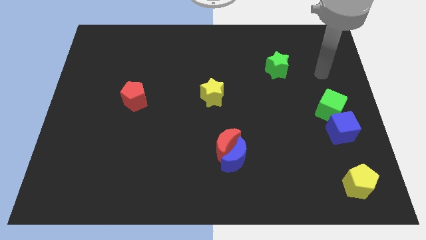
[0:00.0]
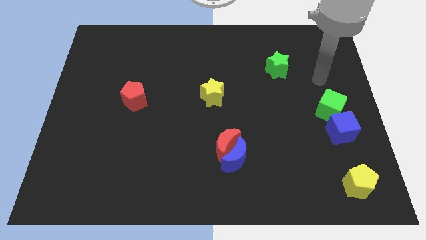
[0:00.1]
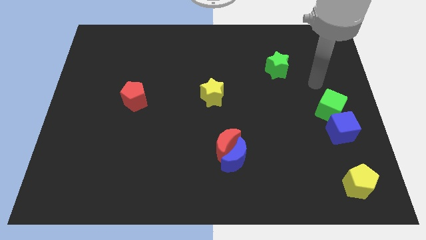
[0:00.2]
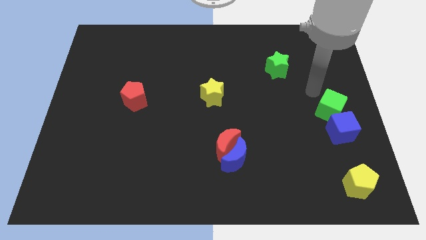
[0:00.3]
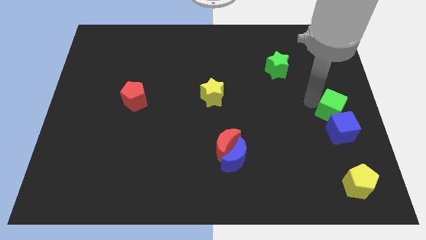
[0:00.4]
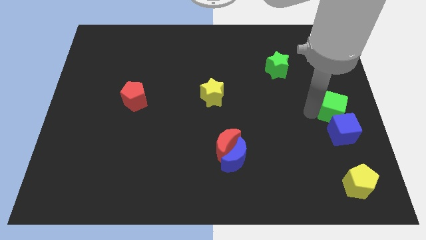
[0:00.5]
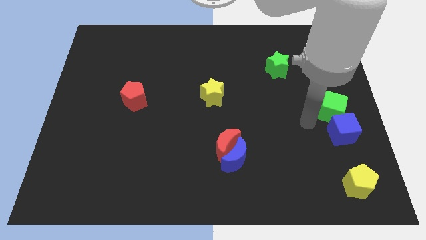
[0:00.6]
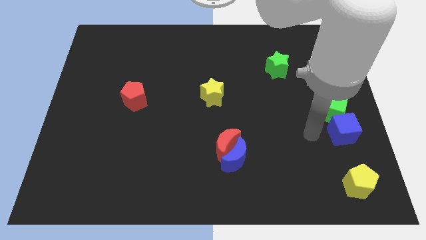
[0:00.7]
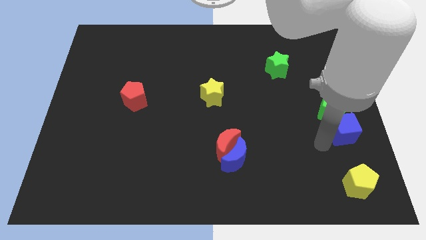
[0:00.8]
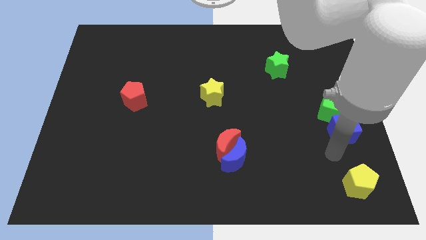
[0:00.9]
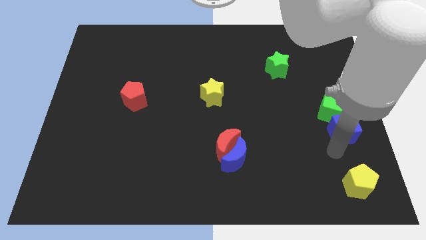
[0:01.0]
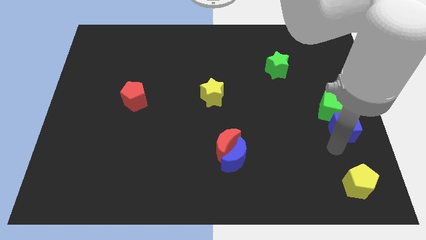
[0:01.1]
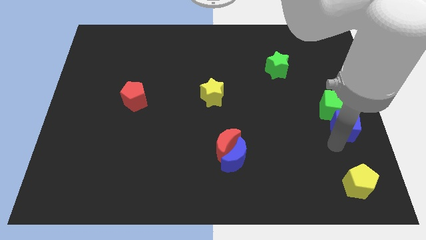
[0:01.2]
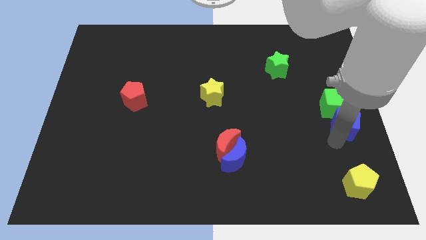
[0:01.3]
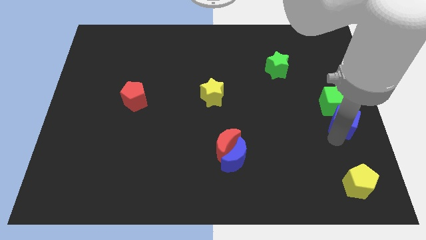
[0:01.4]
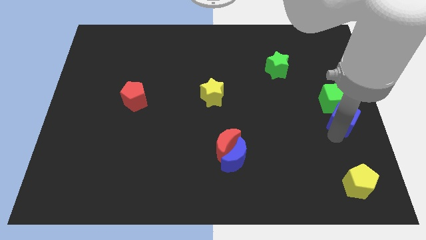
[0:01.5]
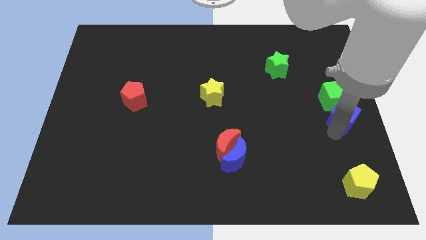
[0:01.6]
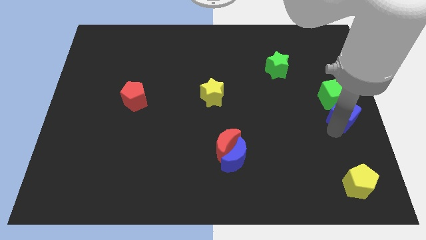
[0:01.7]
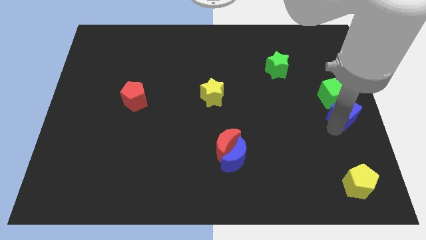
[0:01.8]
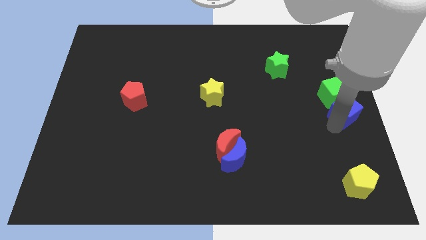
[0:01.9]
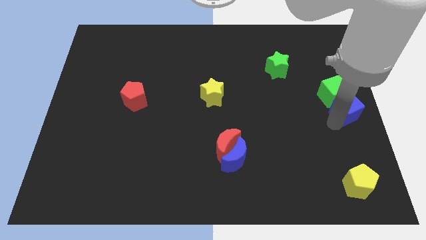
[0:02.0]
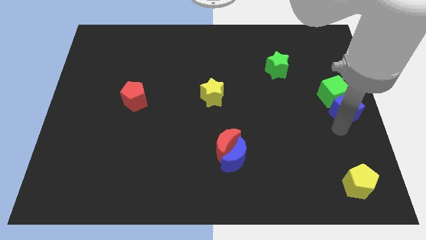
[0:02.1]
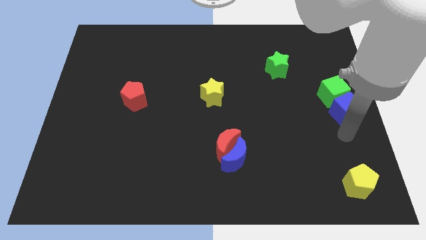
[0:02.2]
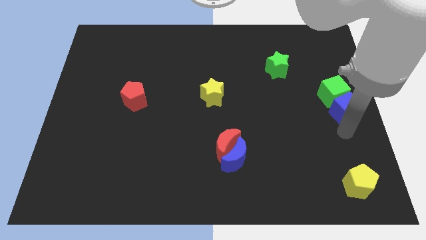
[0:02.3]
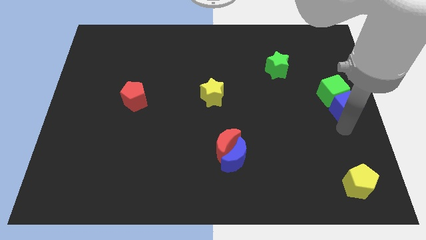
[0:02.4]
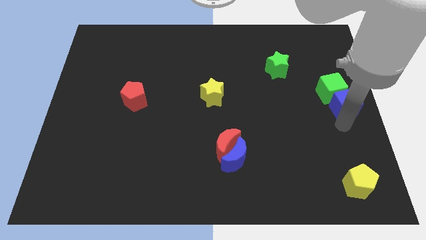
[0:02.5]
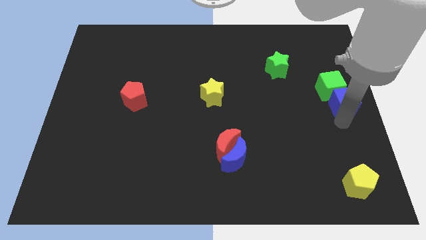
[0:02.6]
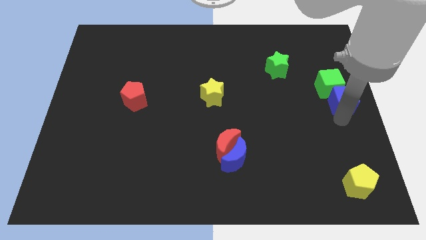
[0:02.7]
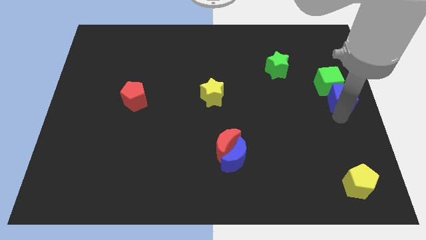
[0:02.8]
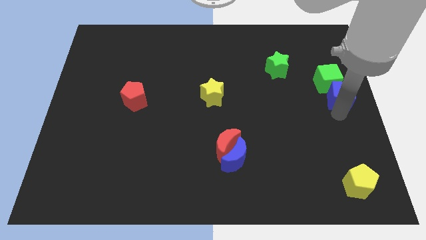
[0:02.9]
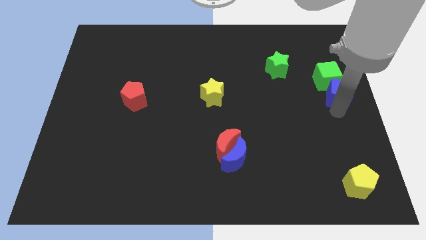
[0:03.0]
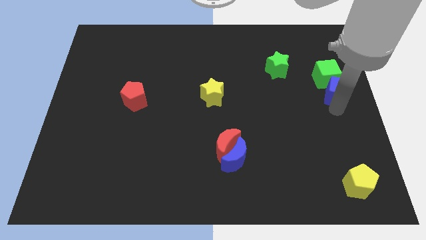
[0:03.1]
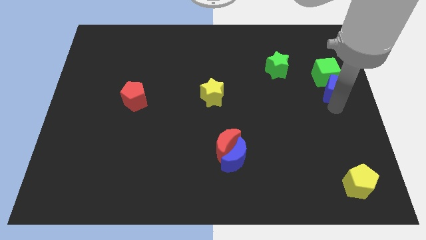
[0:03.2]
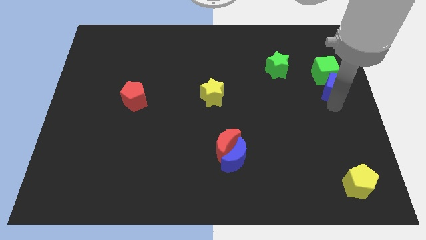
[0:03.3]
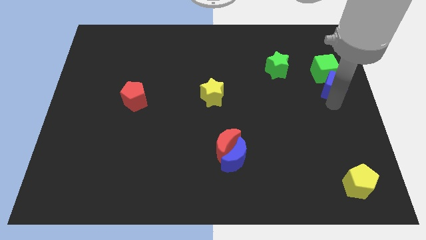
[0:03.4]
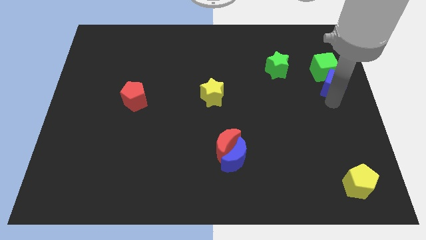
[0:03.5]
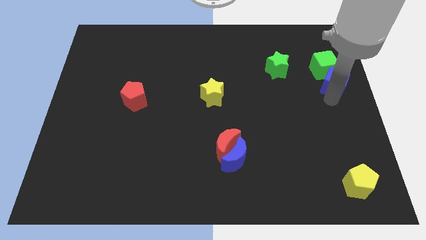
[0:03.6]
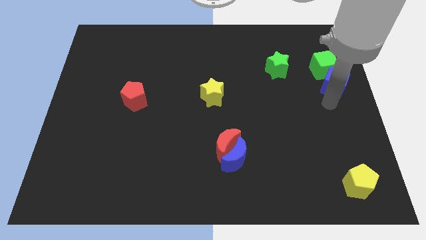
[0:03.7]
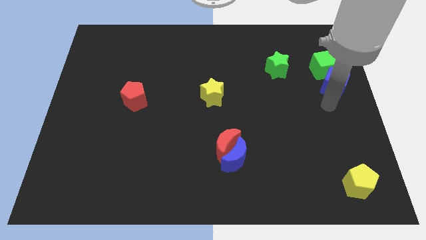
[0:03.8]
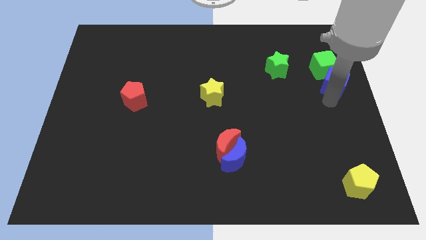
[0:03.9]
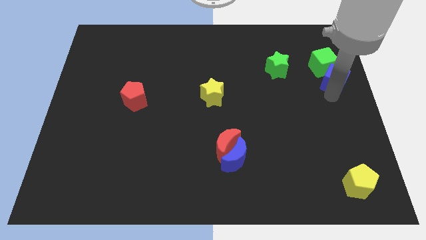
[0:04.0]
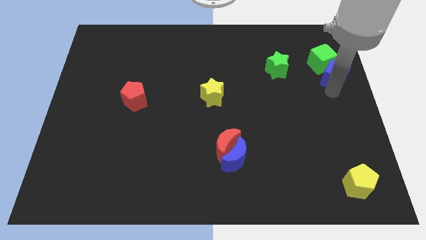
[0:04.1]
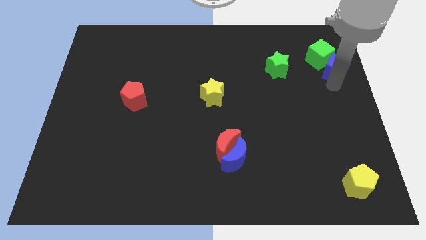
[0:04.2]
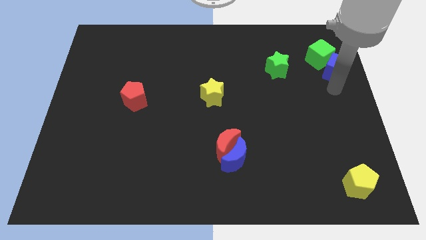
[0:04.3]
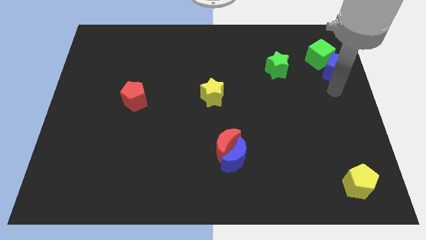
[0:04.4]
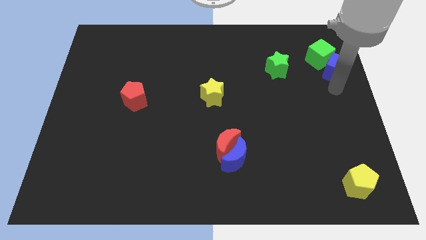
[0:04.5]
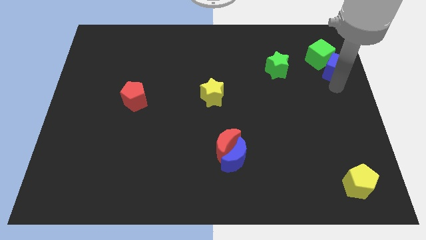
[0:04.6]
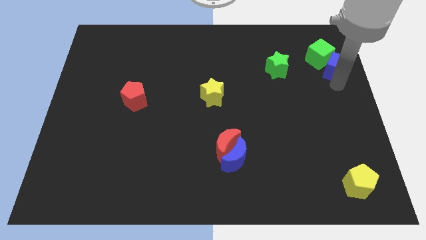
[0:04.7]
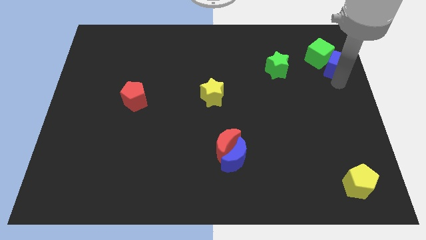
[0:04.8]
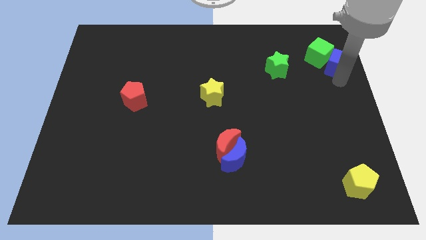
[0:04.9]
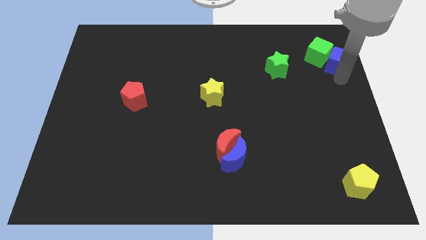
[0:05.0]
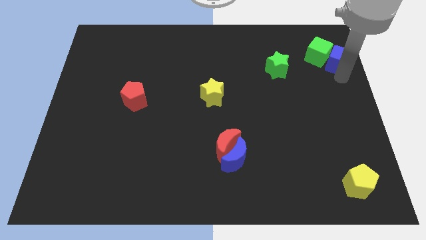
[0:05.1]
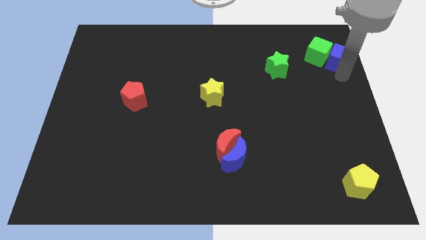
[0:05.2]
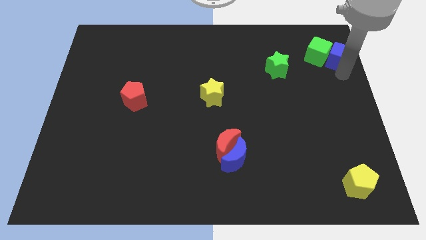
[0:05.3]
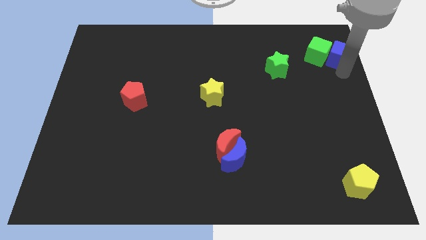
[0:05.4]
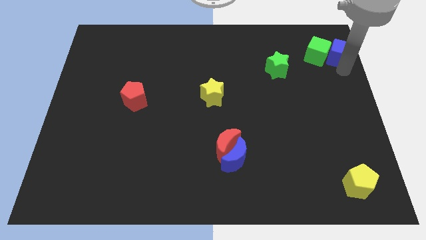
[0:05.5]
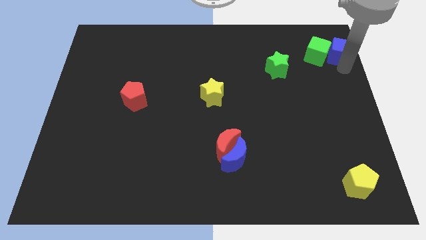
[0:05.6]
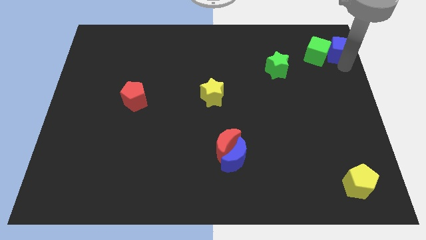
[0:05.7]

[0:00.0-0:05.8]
push the blue cube to the upper right corner

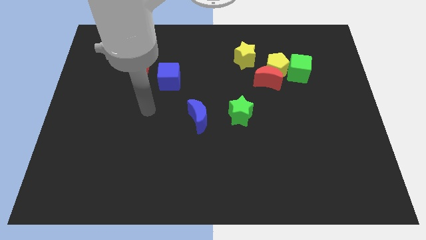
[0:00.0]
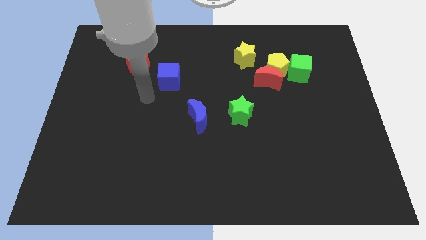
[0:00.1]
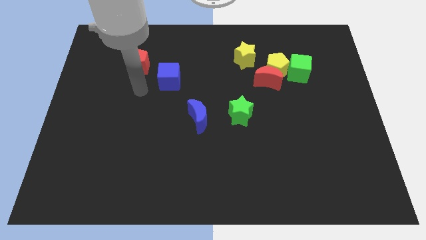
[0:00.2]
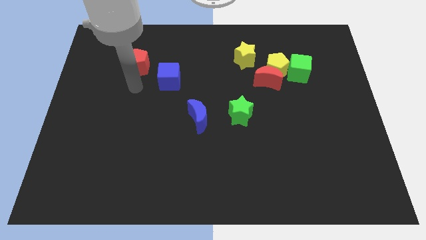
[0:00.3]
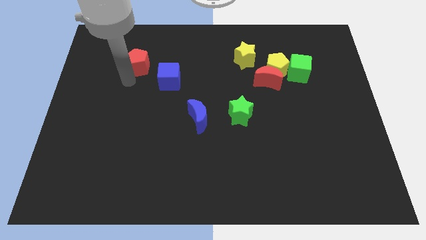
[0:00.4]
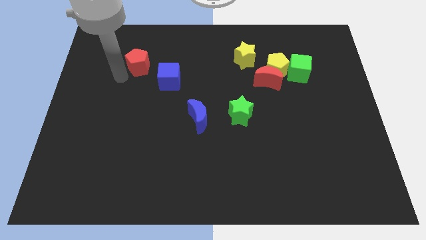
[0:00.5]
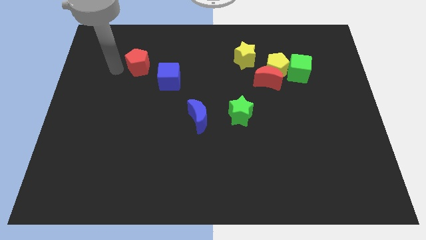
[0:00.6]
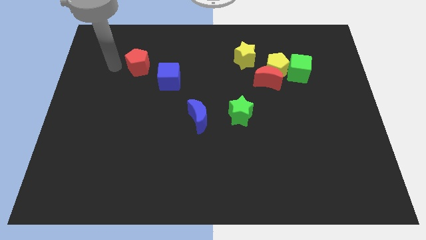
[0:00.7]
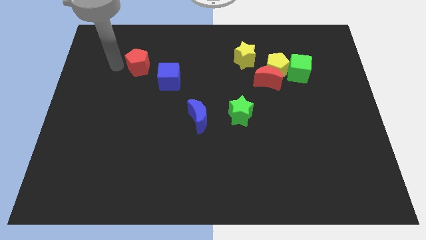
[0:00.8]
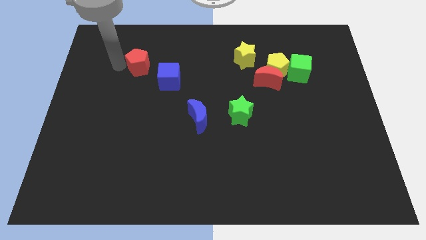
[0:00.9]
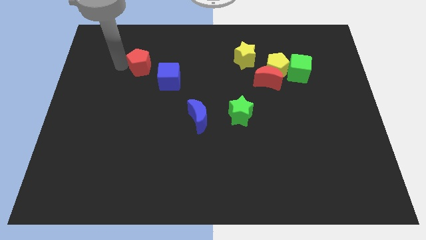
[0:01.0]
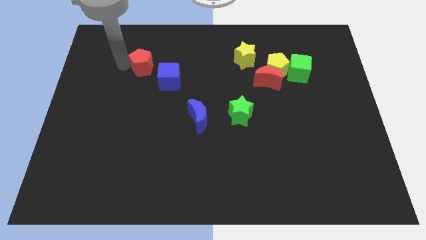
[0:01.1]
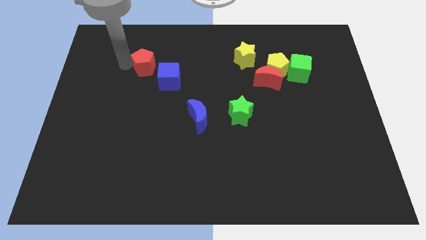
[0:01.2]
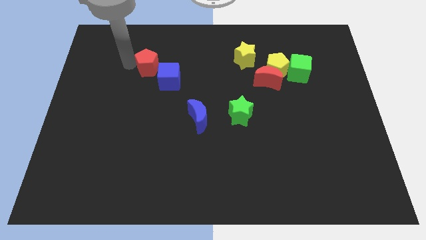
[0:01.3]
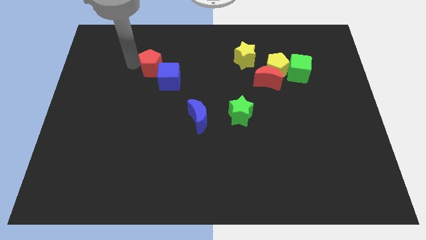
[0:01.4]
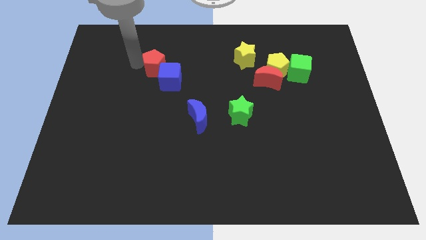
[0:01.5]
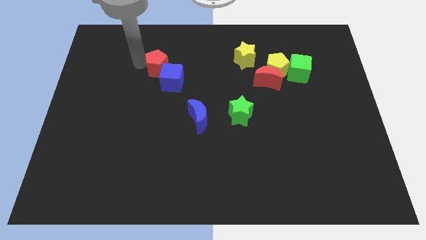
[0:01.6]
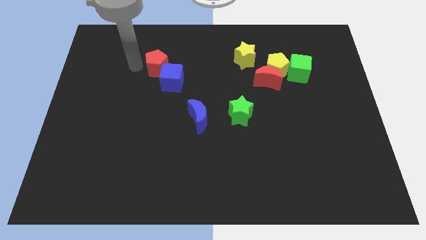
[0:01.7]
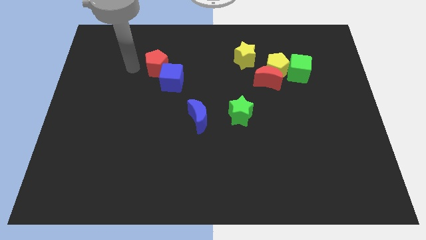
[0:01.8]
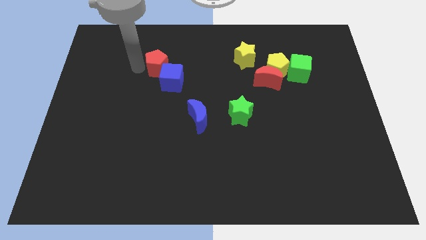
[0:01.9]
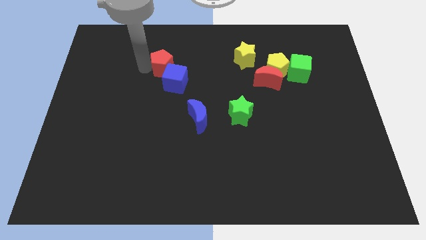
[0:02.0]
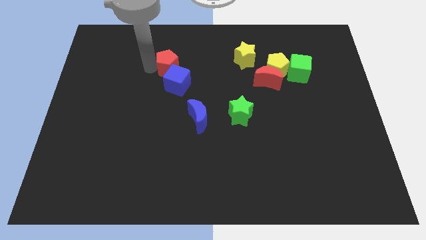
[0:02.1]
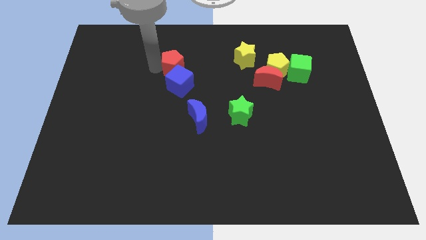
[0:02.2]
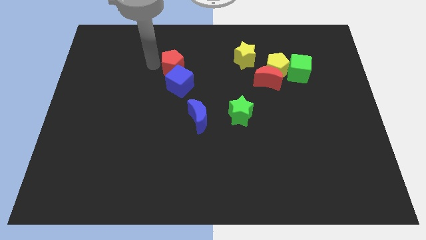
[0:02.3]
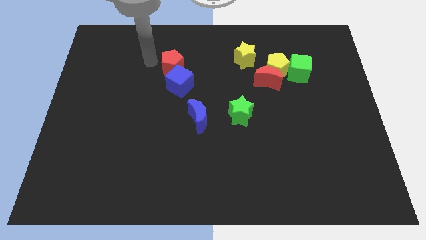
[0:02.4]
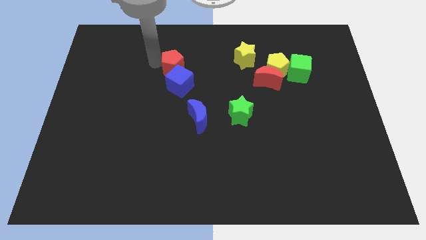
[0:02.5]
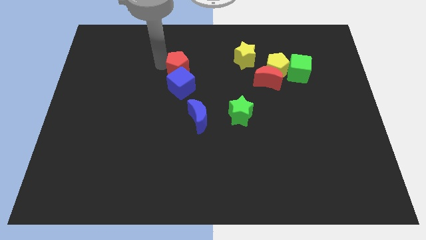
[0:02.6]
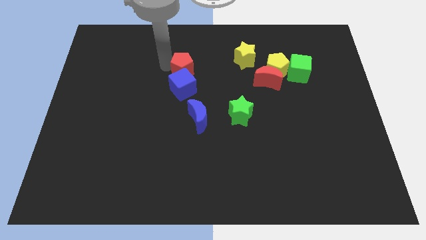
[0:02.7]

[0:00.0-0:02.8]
push the red pentagon to the center of the board
